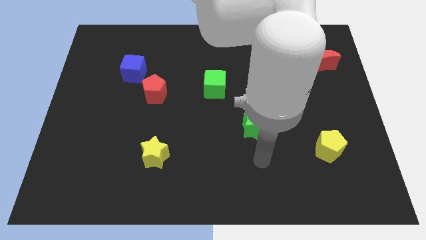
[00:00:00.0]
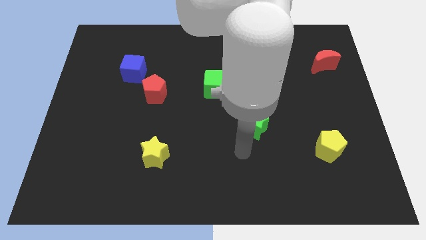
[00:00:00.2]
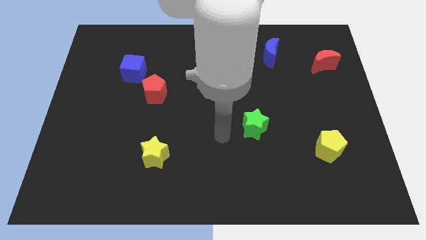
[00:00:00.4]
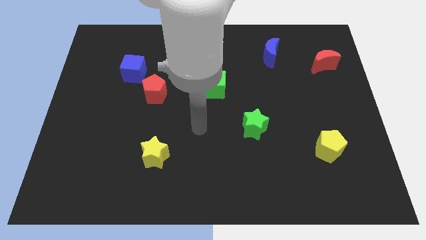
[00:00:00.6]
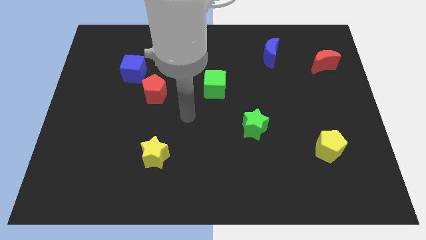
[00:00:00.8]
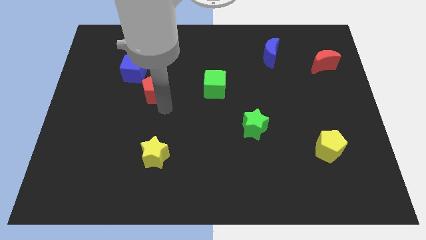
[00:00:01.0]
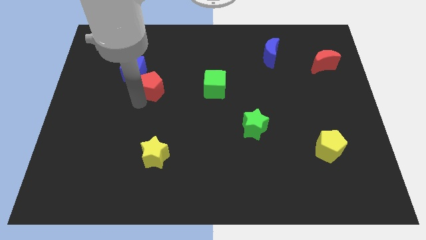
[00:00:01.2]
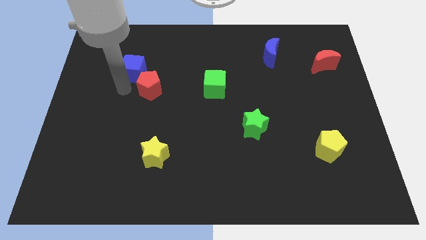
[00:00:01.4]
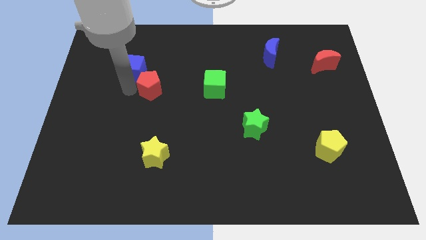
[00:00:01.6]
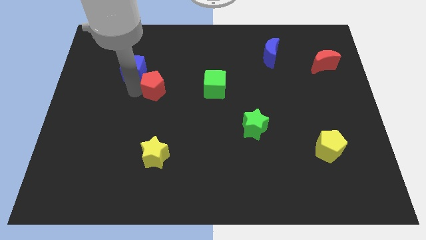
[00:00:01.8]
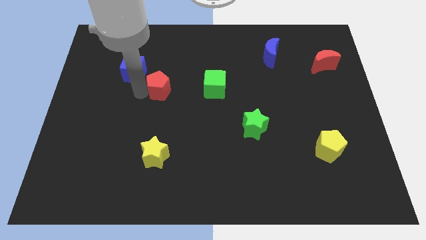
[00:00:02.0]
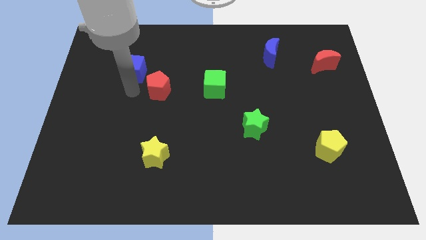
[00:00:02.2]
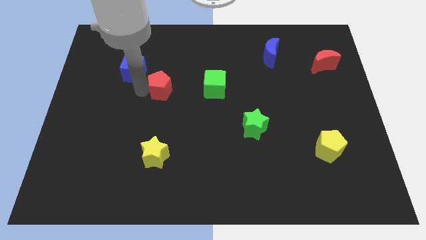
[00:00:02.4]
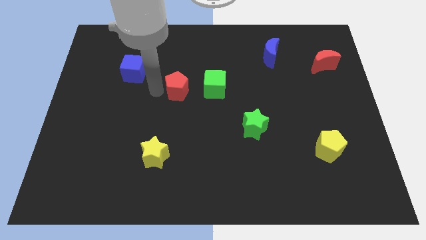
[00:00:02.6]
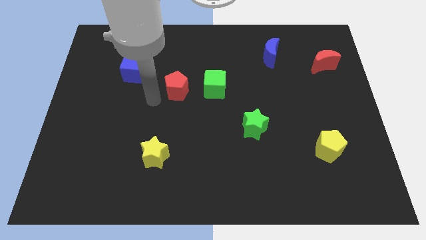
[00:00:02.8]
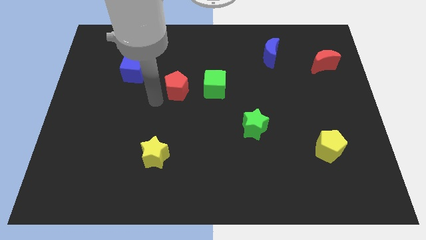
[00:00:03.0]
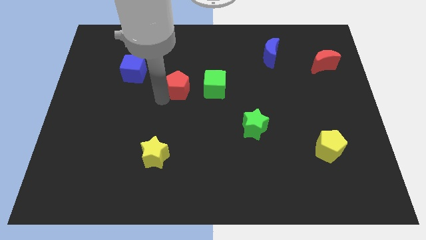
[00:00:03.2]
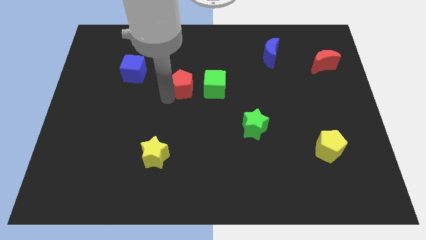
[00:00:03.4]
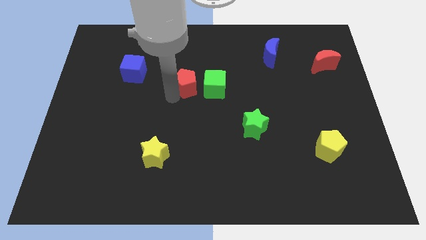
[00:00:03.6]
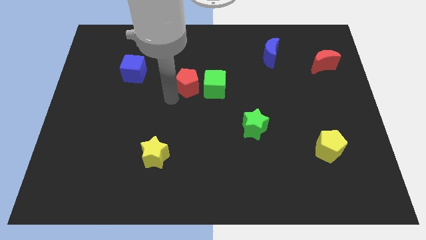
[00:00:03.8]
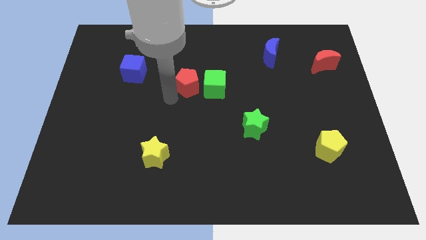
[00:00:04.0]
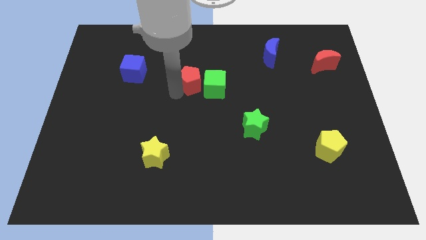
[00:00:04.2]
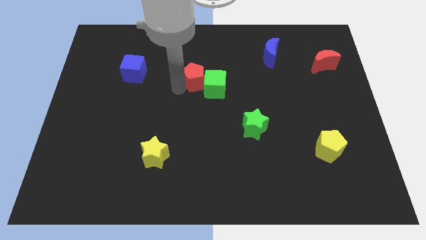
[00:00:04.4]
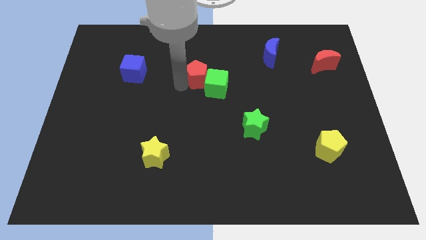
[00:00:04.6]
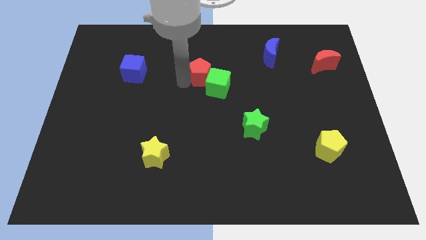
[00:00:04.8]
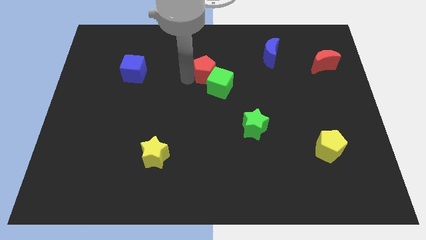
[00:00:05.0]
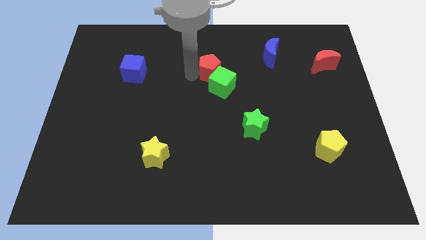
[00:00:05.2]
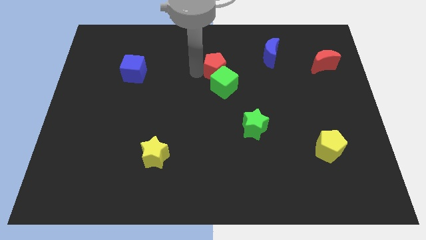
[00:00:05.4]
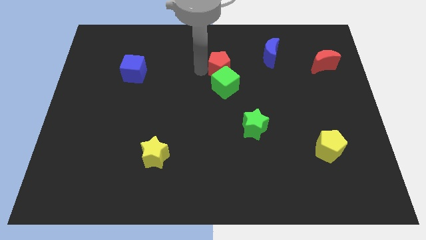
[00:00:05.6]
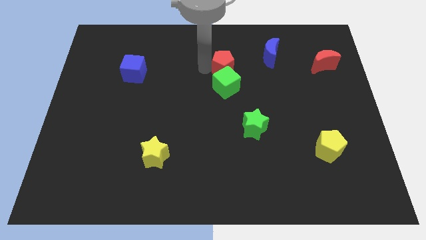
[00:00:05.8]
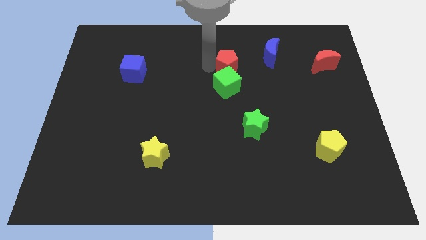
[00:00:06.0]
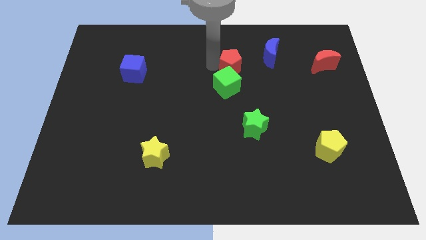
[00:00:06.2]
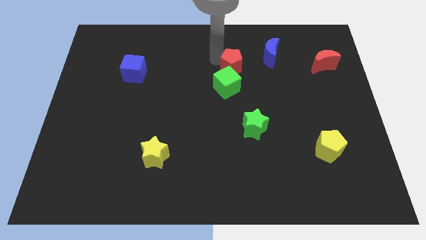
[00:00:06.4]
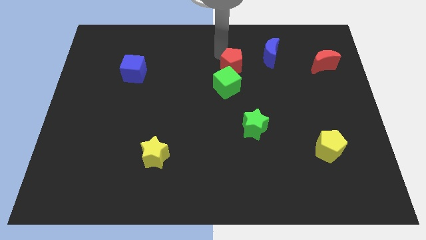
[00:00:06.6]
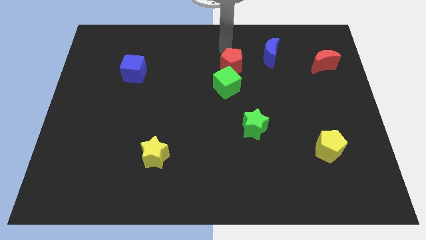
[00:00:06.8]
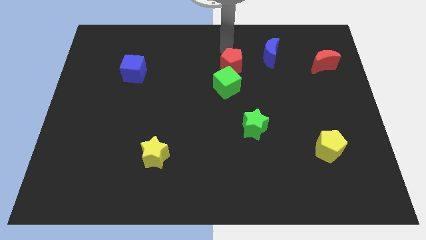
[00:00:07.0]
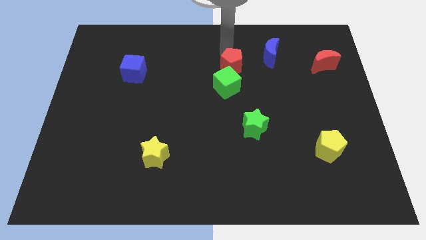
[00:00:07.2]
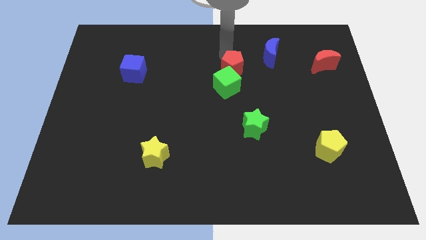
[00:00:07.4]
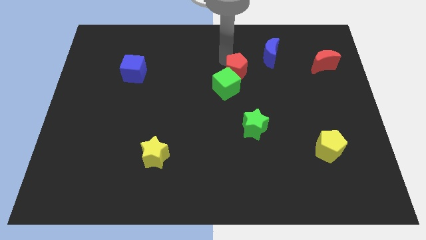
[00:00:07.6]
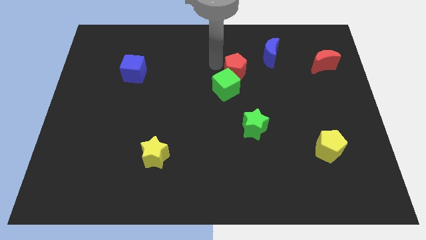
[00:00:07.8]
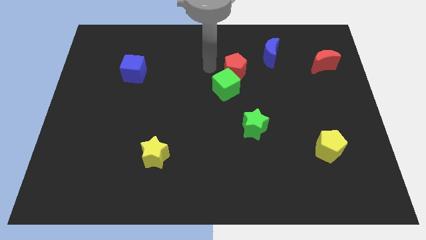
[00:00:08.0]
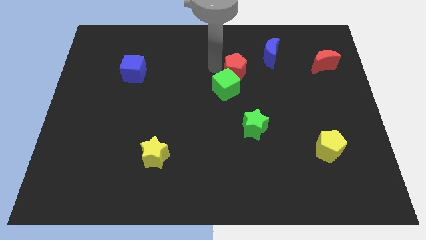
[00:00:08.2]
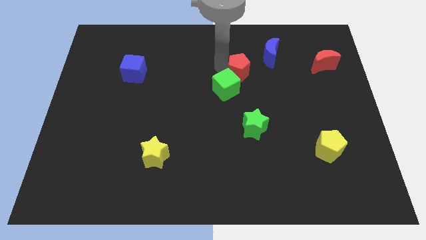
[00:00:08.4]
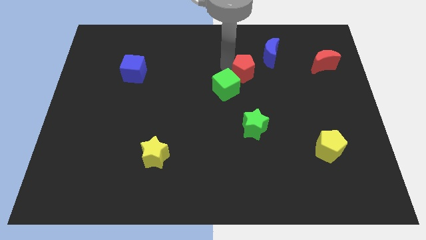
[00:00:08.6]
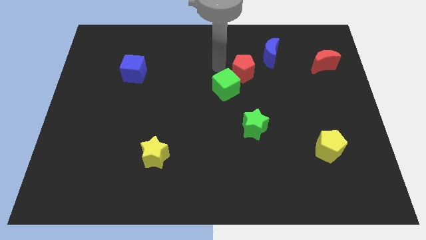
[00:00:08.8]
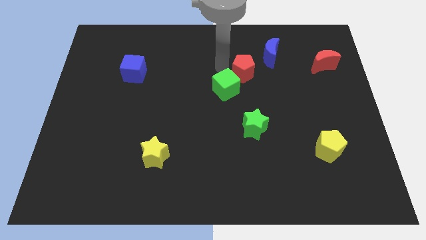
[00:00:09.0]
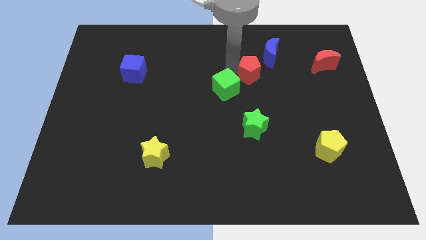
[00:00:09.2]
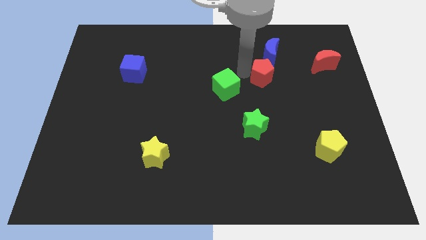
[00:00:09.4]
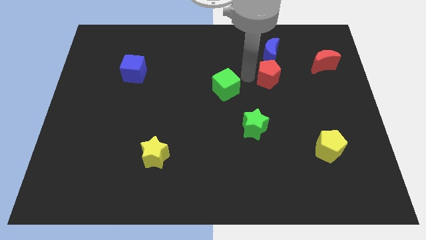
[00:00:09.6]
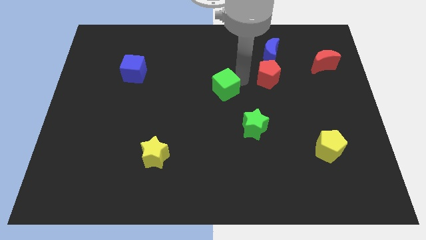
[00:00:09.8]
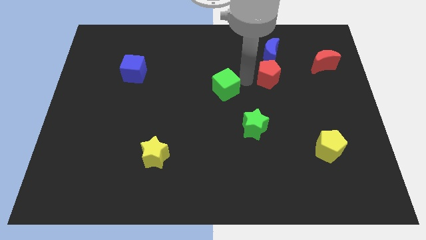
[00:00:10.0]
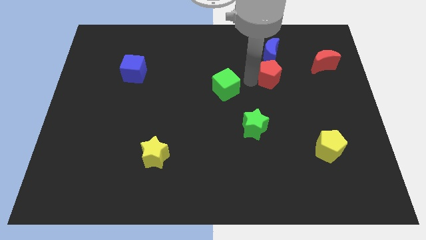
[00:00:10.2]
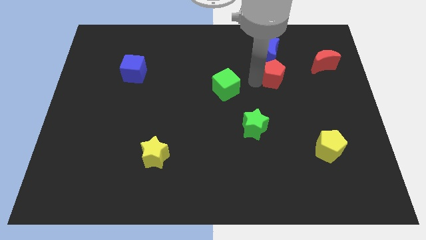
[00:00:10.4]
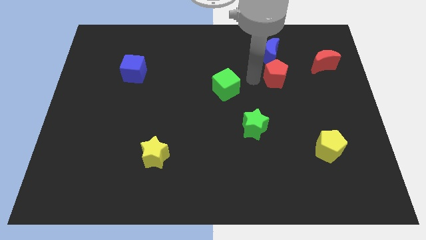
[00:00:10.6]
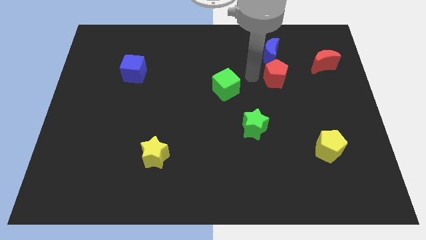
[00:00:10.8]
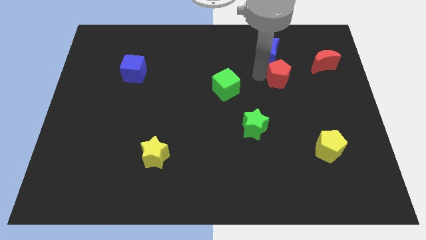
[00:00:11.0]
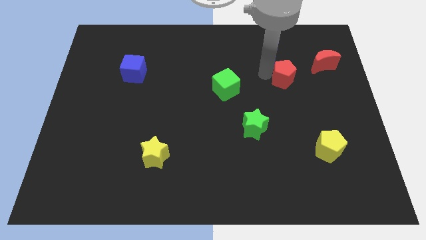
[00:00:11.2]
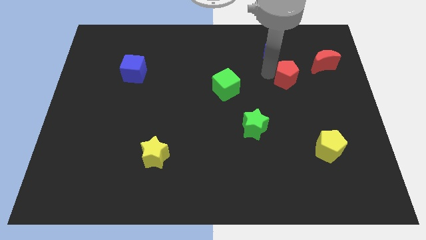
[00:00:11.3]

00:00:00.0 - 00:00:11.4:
move the red pentagon diagonally down and to the left of the red moon

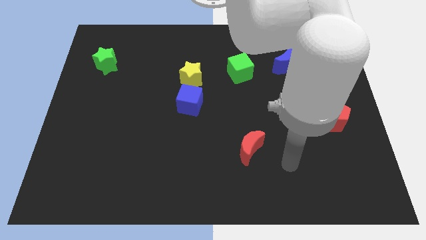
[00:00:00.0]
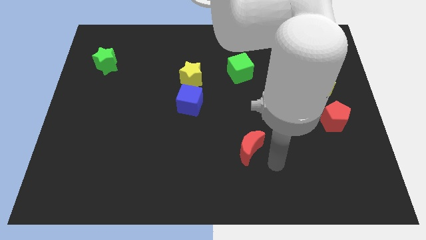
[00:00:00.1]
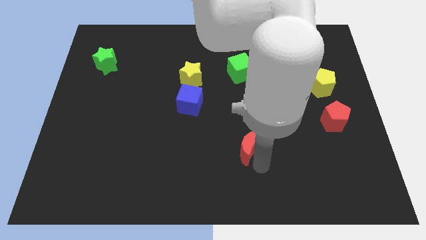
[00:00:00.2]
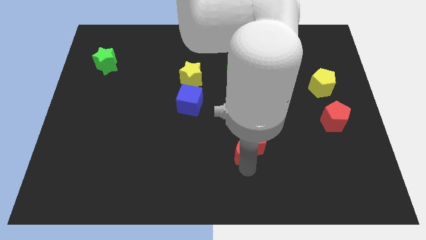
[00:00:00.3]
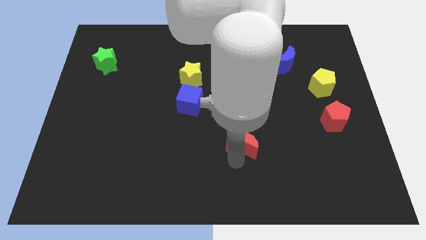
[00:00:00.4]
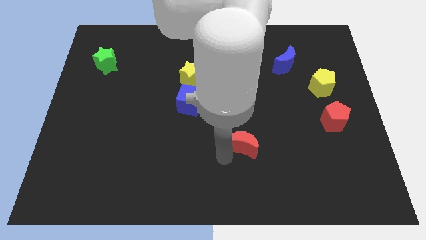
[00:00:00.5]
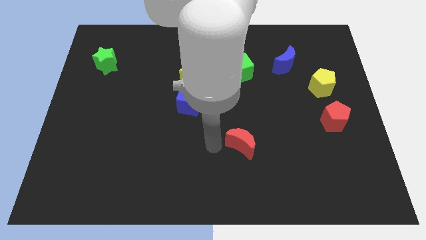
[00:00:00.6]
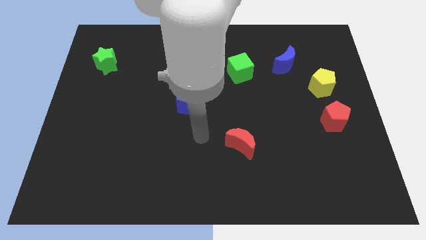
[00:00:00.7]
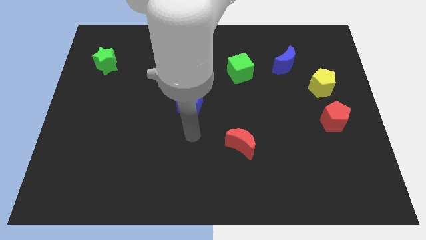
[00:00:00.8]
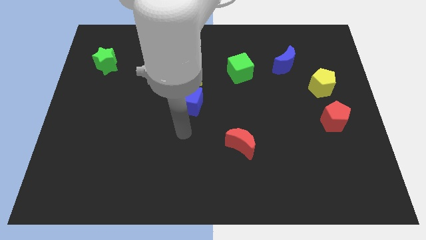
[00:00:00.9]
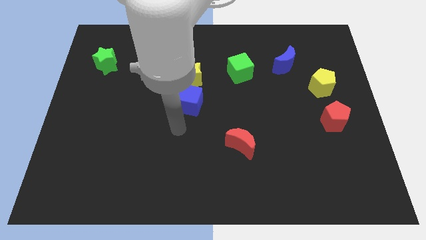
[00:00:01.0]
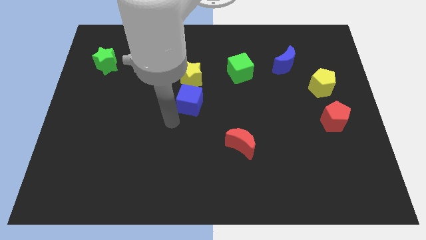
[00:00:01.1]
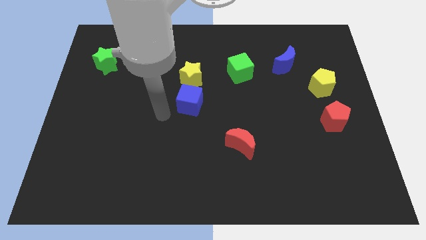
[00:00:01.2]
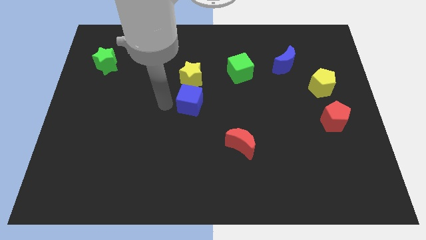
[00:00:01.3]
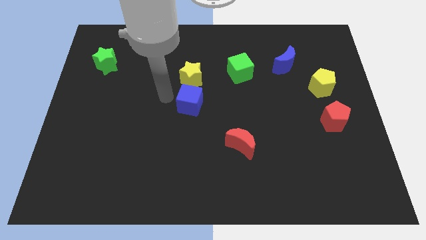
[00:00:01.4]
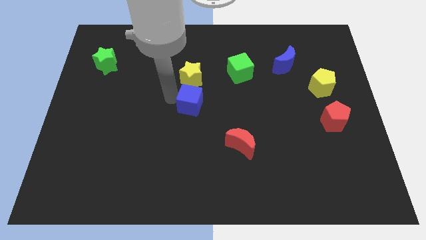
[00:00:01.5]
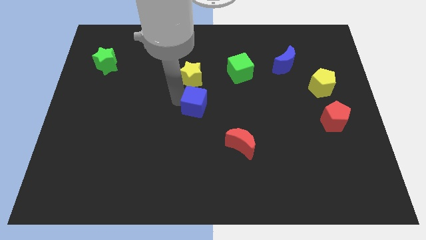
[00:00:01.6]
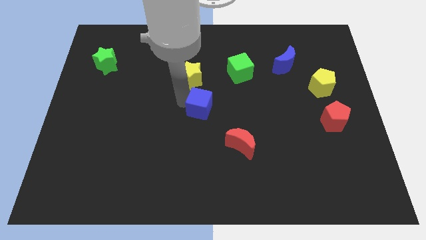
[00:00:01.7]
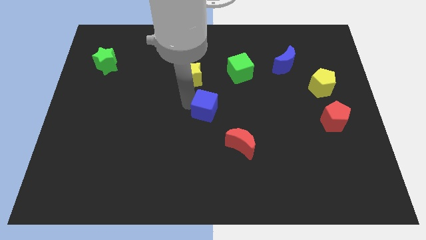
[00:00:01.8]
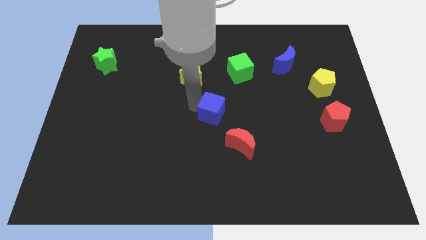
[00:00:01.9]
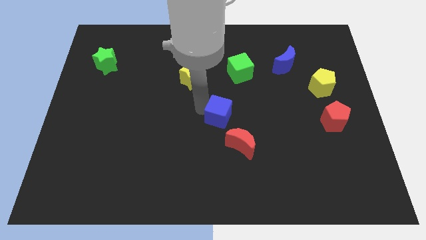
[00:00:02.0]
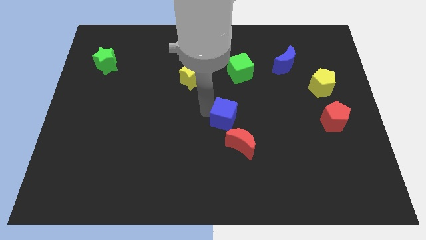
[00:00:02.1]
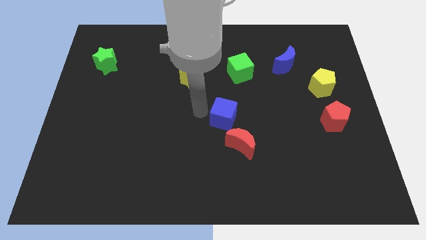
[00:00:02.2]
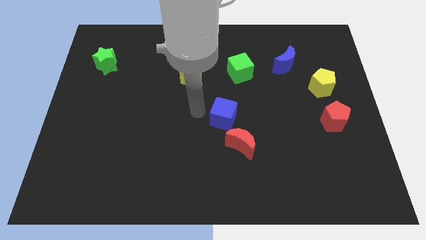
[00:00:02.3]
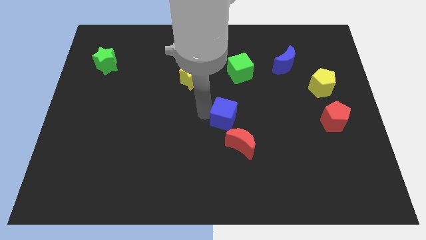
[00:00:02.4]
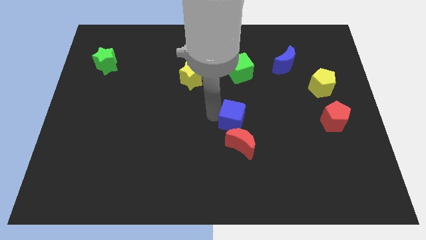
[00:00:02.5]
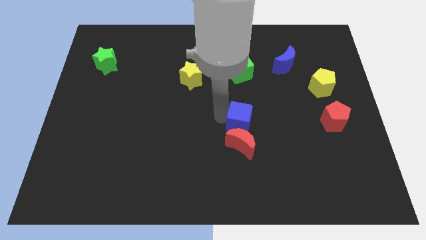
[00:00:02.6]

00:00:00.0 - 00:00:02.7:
move the blue cube diagonally up and to the right of the red moon
